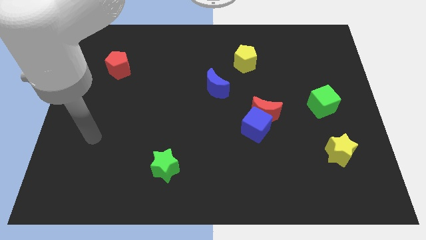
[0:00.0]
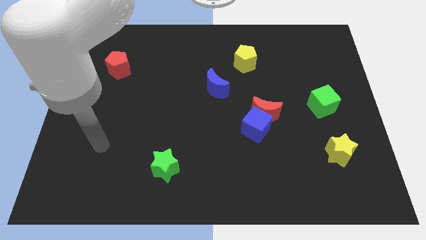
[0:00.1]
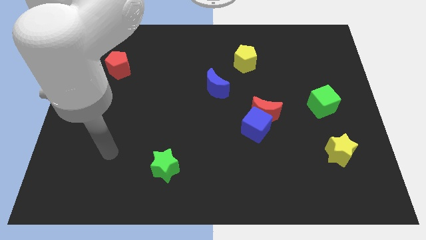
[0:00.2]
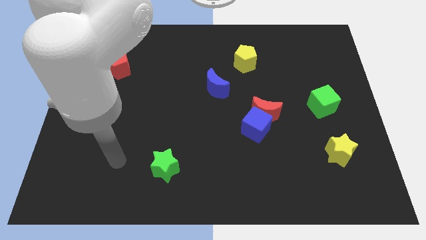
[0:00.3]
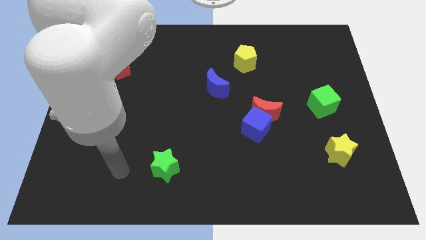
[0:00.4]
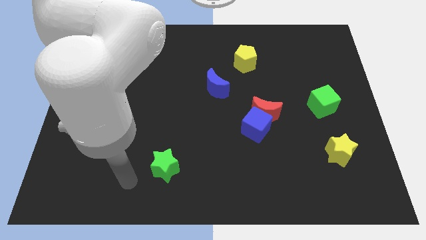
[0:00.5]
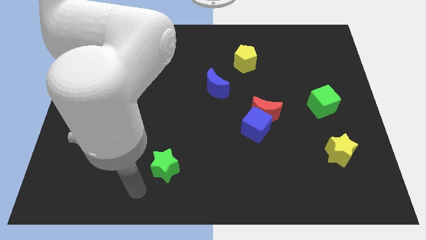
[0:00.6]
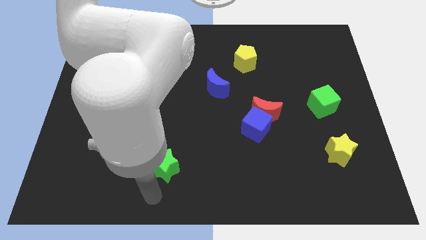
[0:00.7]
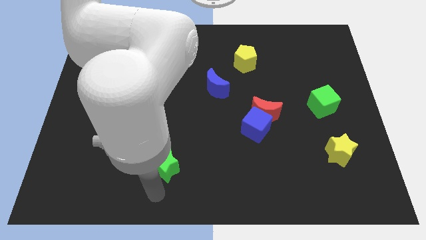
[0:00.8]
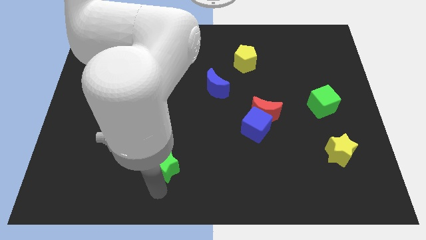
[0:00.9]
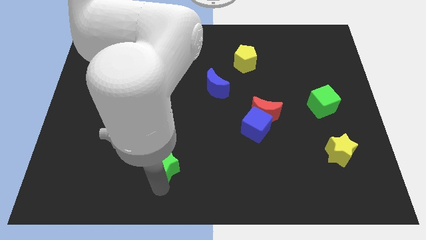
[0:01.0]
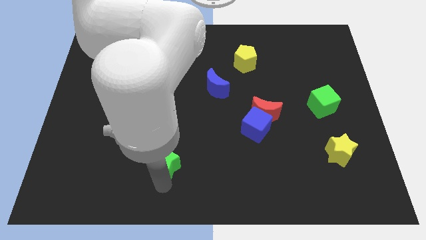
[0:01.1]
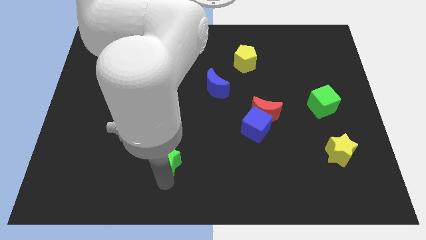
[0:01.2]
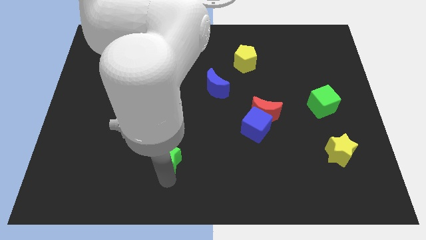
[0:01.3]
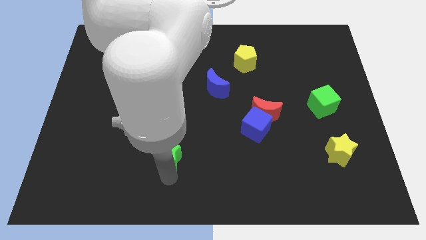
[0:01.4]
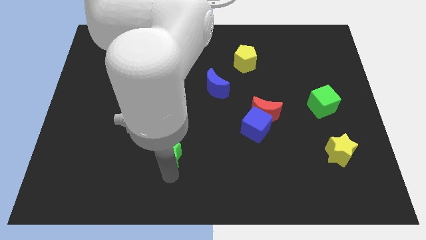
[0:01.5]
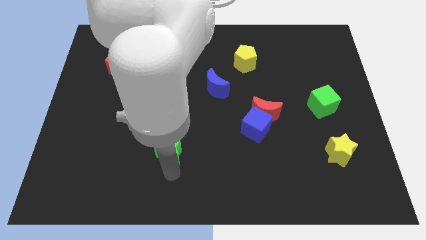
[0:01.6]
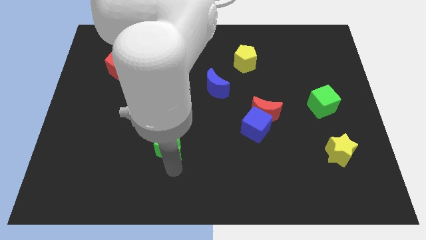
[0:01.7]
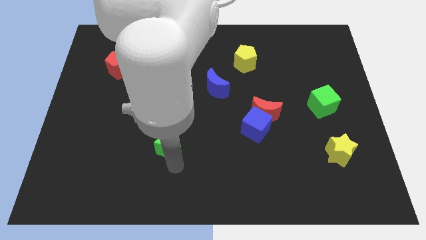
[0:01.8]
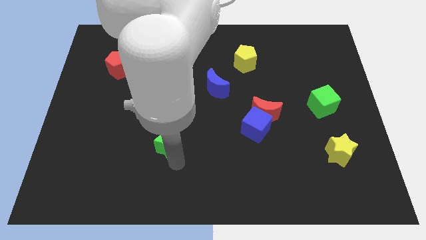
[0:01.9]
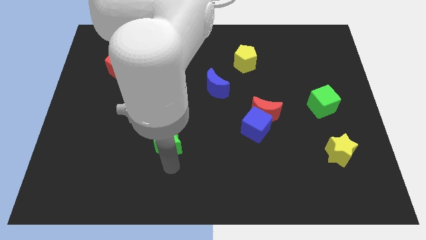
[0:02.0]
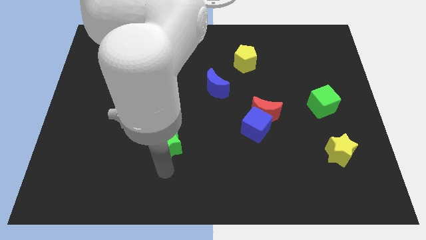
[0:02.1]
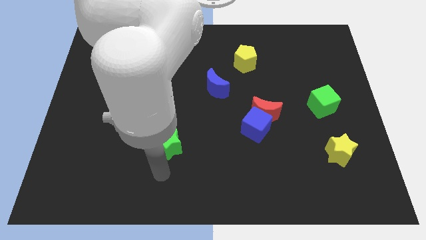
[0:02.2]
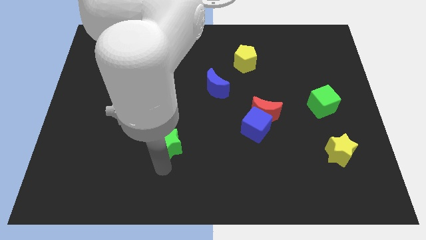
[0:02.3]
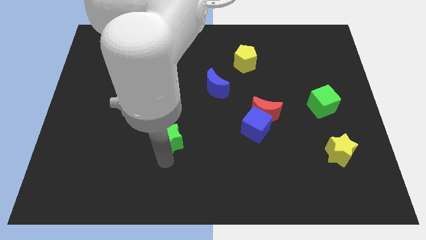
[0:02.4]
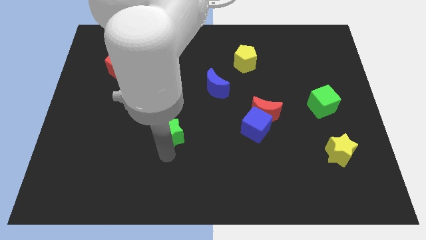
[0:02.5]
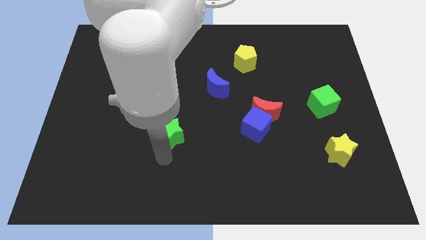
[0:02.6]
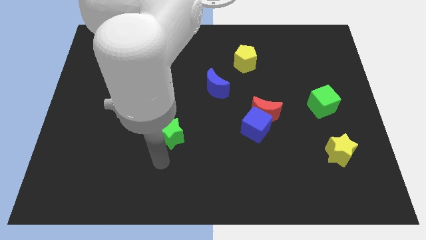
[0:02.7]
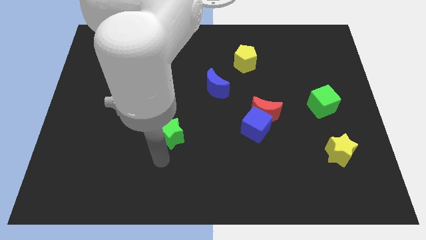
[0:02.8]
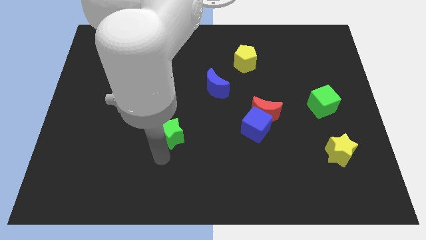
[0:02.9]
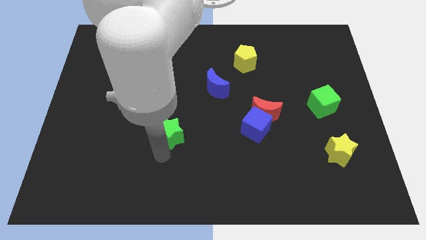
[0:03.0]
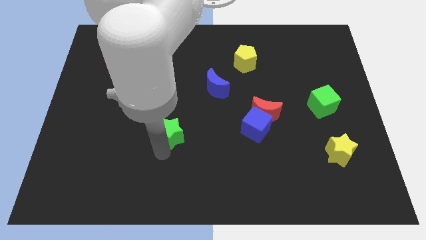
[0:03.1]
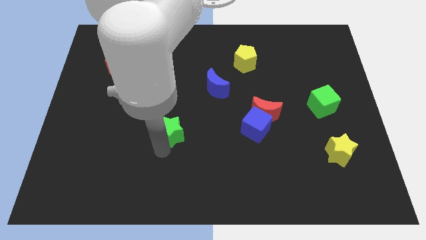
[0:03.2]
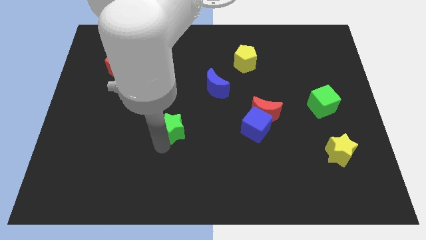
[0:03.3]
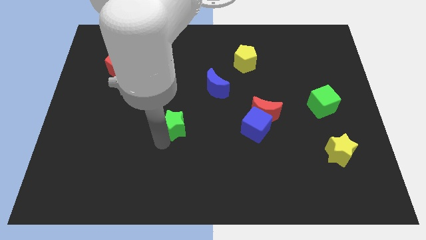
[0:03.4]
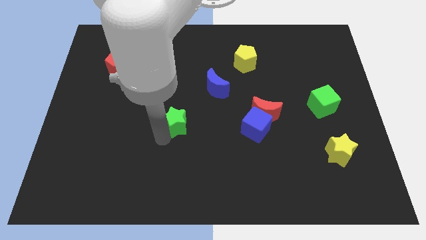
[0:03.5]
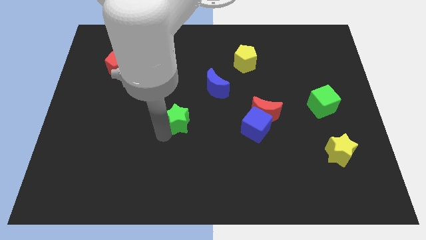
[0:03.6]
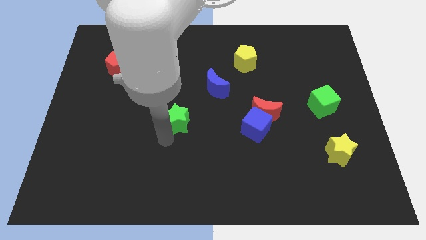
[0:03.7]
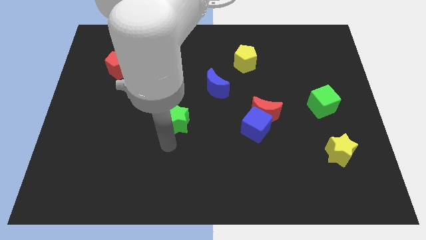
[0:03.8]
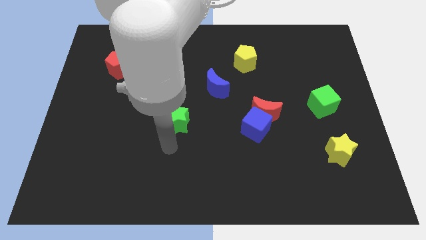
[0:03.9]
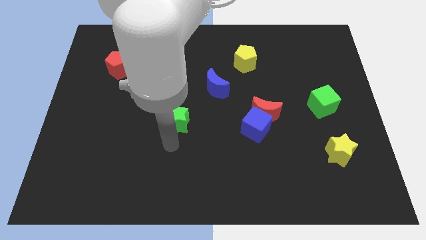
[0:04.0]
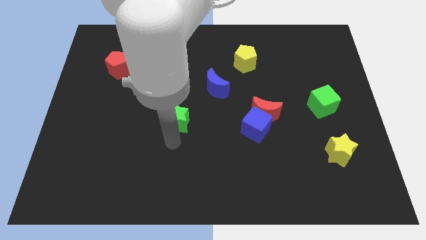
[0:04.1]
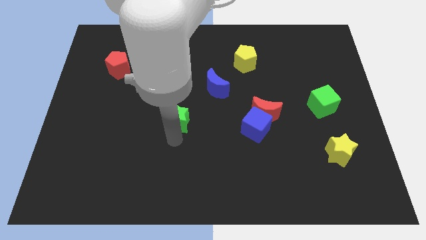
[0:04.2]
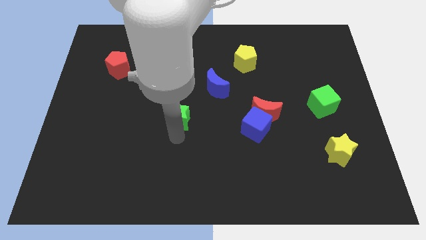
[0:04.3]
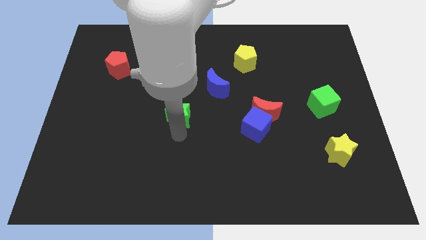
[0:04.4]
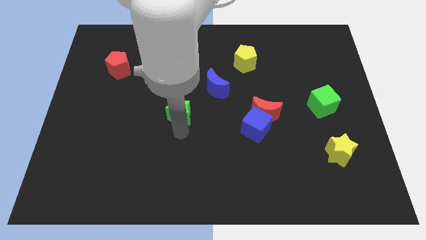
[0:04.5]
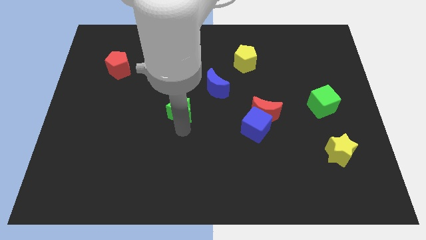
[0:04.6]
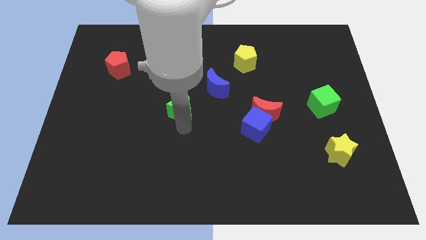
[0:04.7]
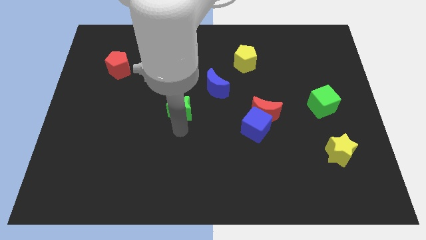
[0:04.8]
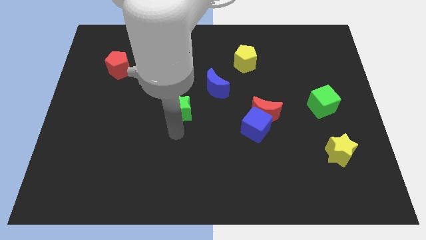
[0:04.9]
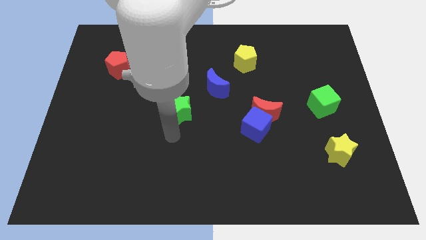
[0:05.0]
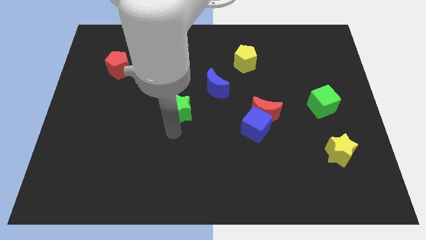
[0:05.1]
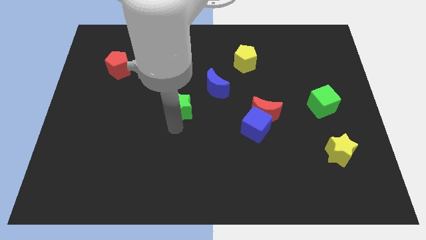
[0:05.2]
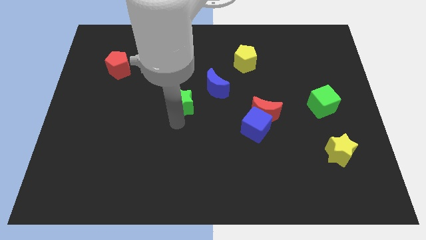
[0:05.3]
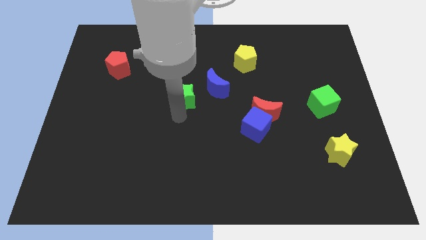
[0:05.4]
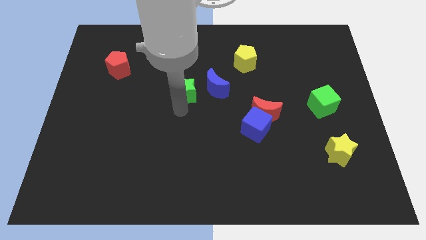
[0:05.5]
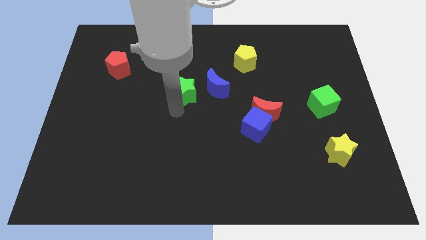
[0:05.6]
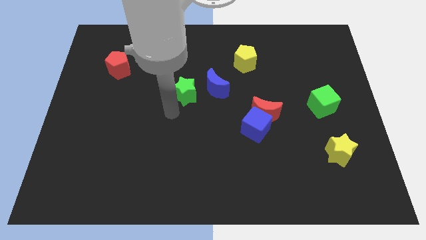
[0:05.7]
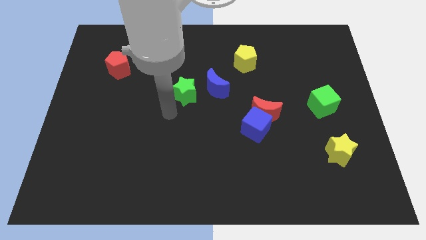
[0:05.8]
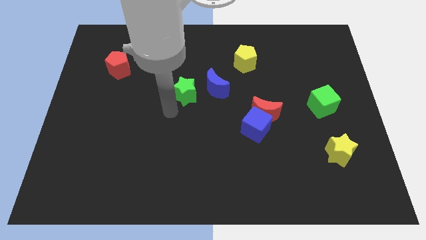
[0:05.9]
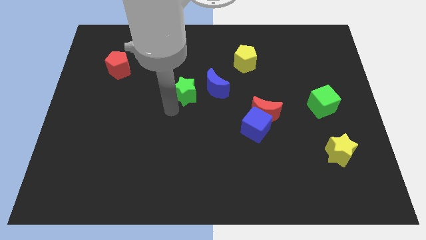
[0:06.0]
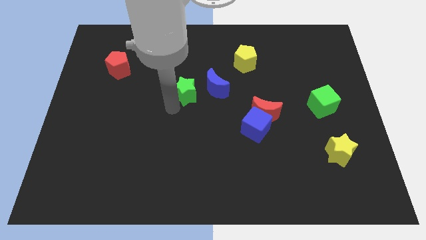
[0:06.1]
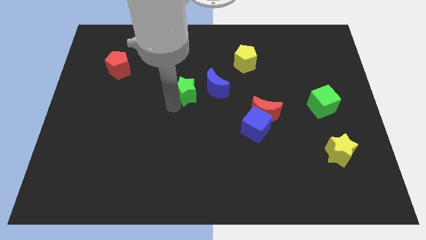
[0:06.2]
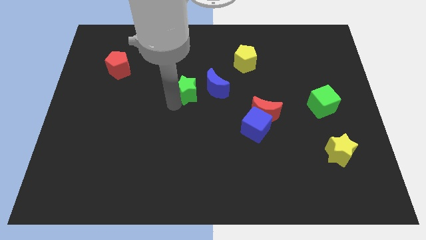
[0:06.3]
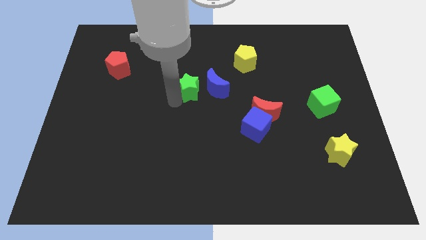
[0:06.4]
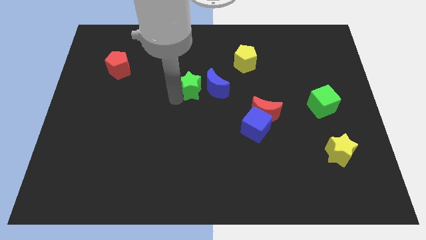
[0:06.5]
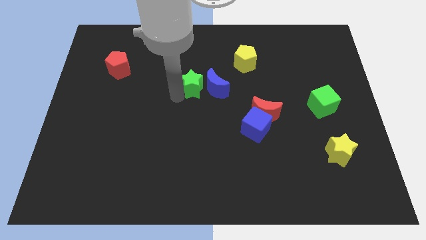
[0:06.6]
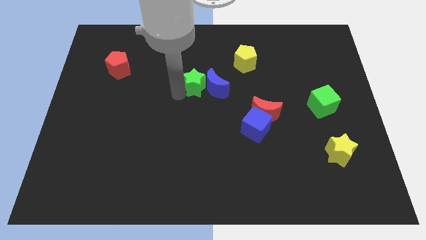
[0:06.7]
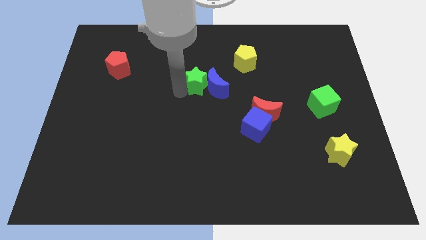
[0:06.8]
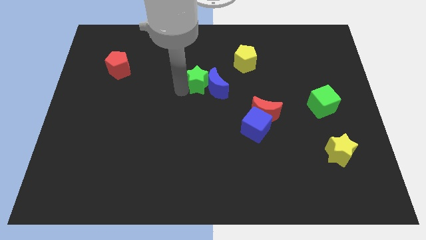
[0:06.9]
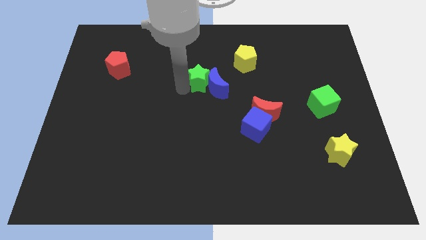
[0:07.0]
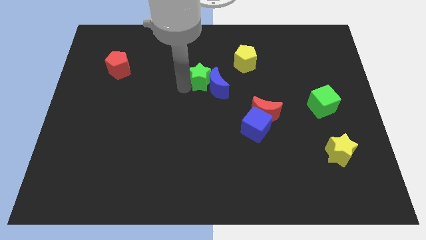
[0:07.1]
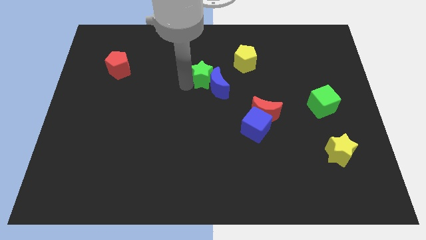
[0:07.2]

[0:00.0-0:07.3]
slide the green star to the top side of the blue moon

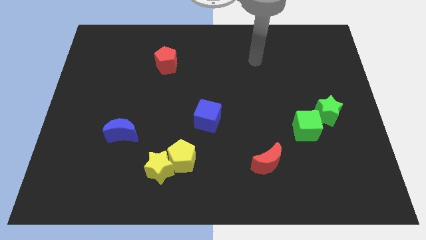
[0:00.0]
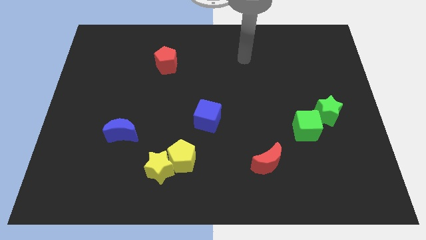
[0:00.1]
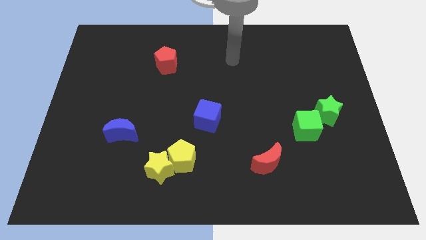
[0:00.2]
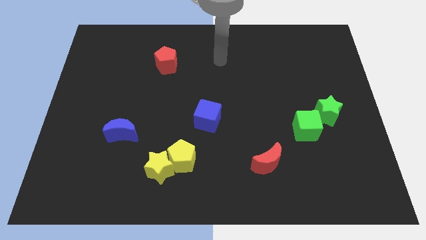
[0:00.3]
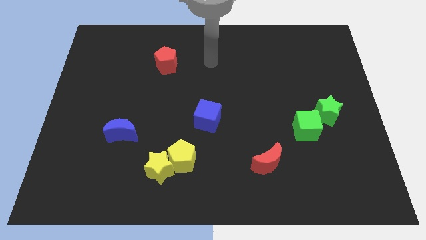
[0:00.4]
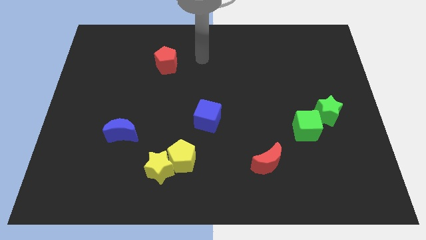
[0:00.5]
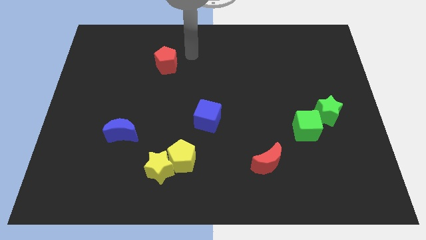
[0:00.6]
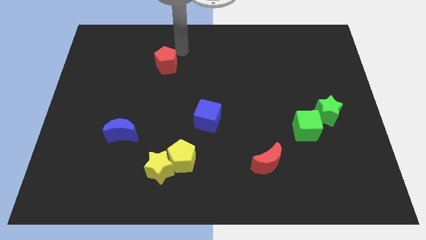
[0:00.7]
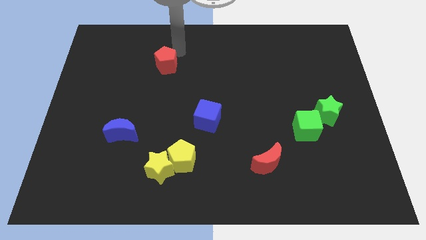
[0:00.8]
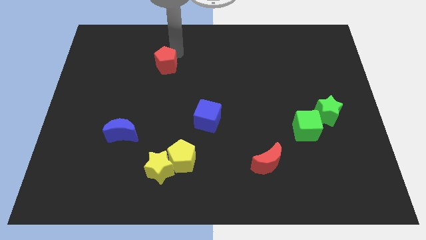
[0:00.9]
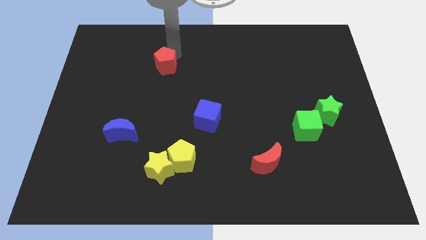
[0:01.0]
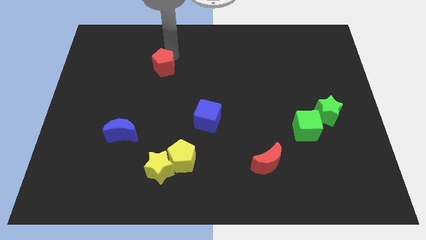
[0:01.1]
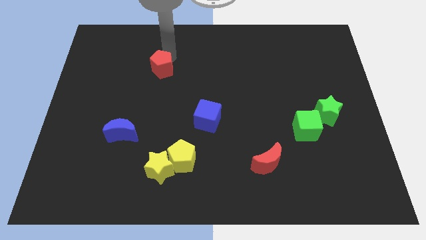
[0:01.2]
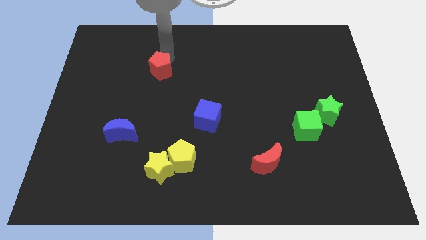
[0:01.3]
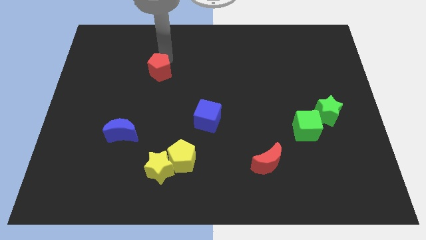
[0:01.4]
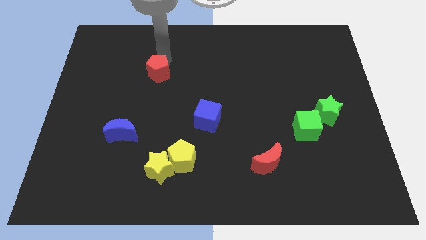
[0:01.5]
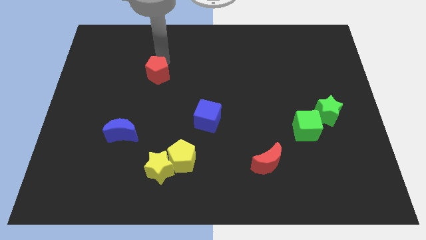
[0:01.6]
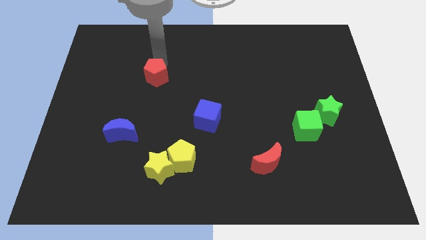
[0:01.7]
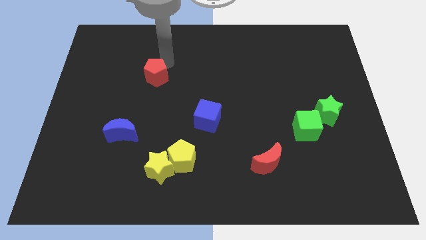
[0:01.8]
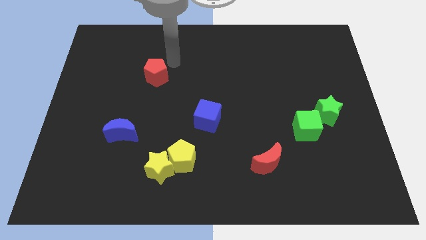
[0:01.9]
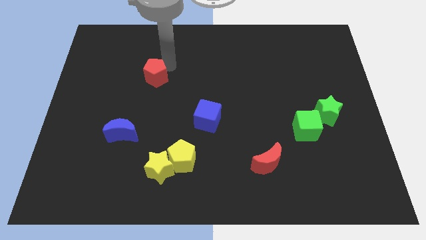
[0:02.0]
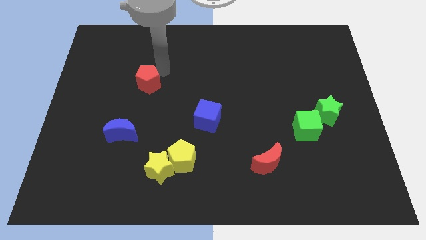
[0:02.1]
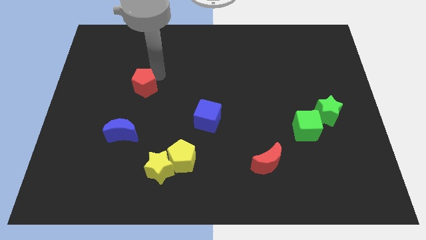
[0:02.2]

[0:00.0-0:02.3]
put the red pentagon to the top of the blue moon
